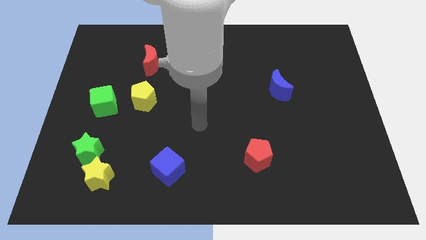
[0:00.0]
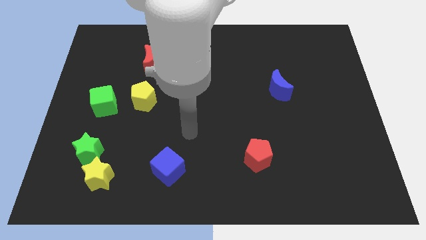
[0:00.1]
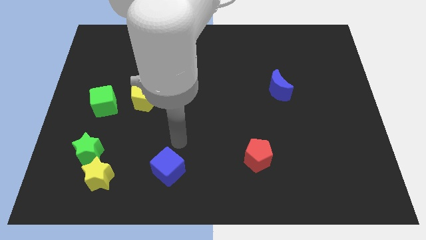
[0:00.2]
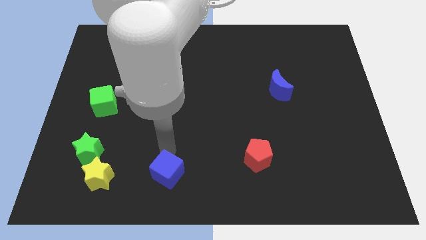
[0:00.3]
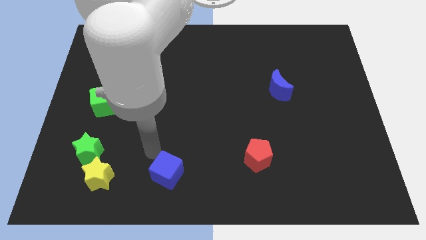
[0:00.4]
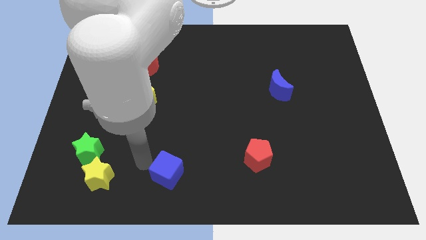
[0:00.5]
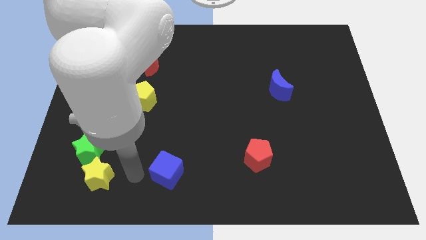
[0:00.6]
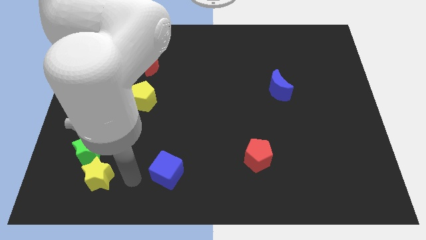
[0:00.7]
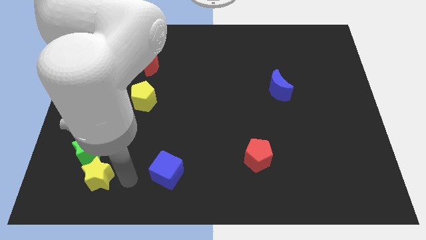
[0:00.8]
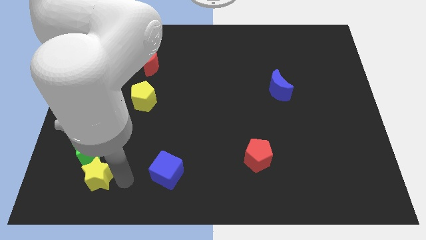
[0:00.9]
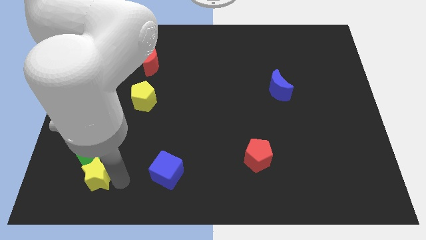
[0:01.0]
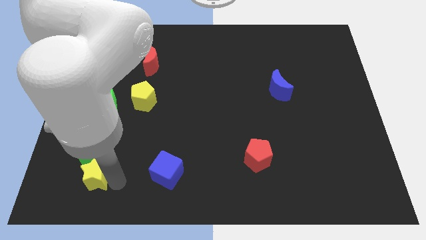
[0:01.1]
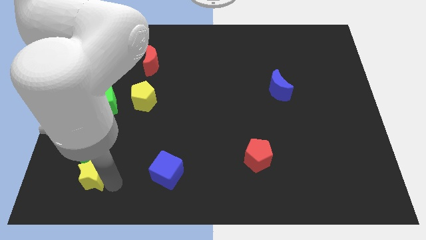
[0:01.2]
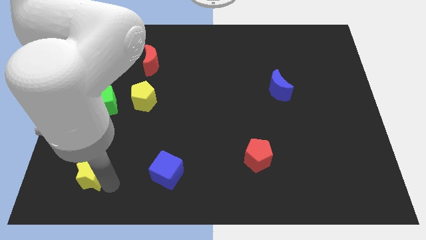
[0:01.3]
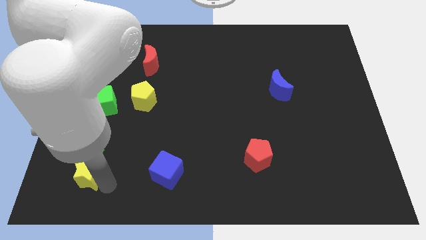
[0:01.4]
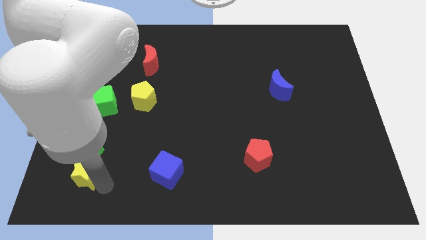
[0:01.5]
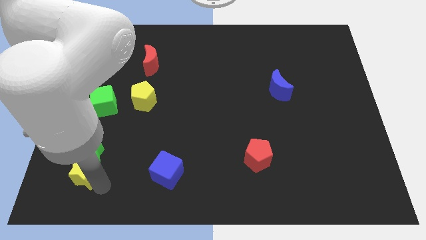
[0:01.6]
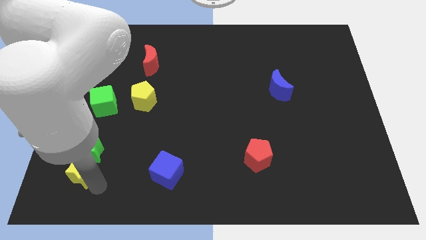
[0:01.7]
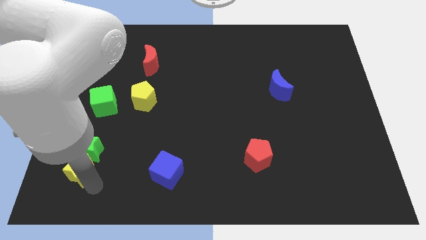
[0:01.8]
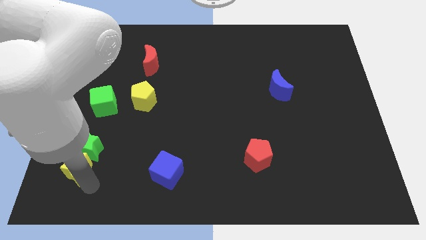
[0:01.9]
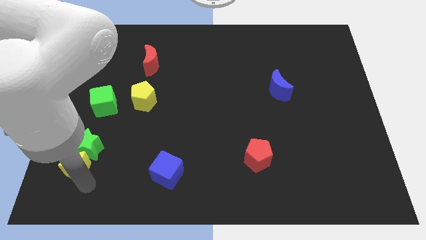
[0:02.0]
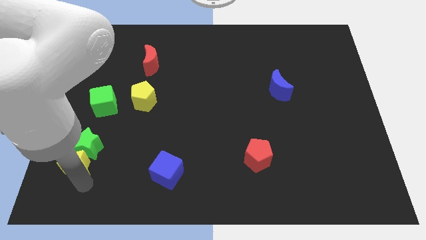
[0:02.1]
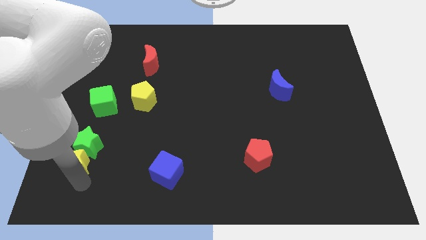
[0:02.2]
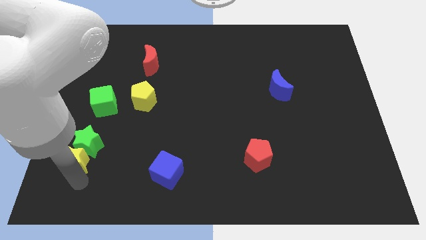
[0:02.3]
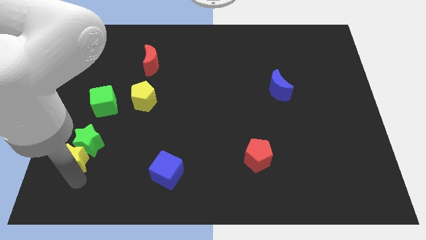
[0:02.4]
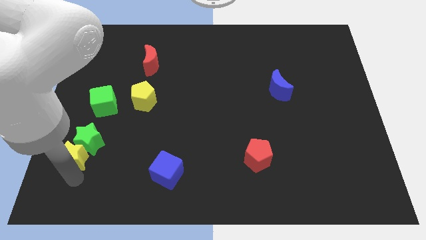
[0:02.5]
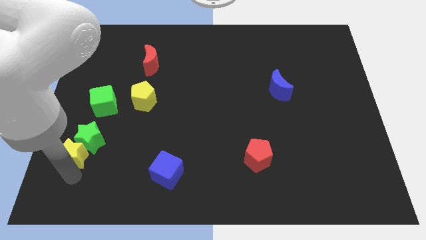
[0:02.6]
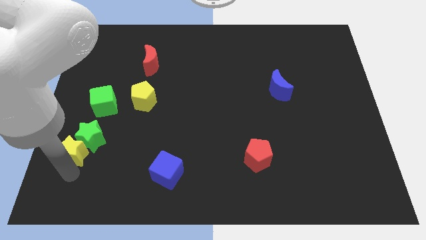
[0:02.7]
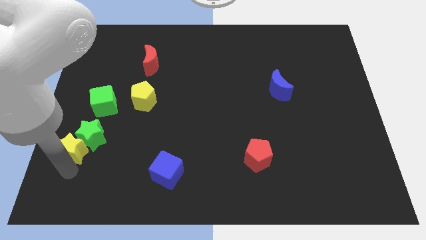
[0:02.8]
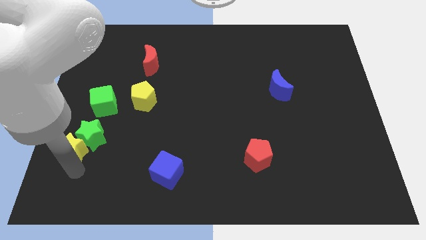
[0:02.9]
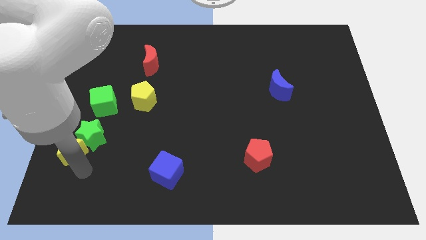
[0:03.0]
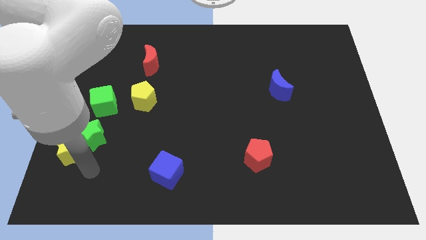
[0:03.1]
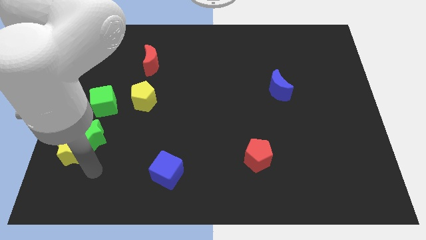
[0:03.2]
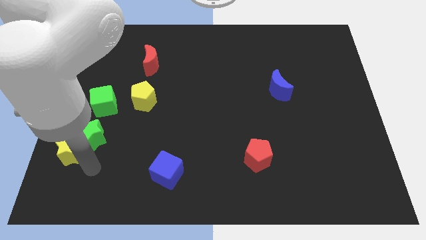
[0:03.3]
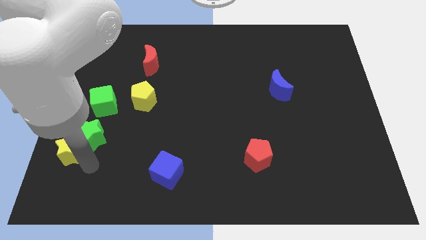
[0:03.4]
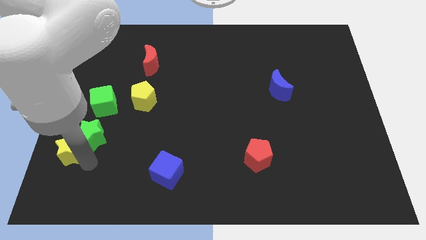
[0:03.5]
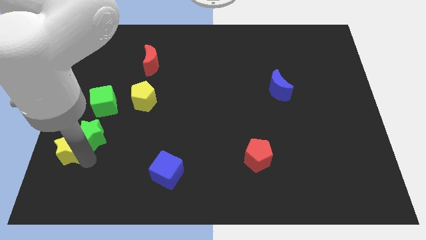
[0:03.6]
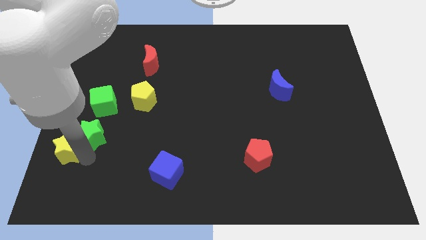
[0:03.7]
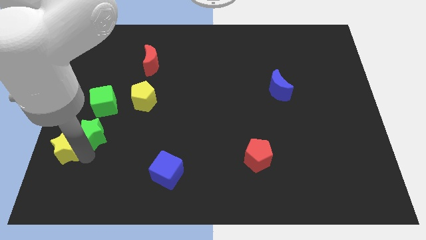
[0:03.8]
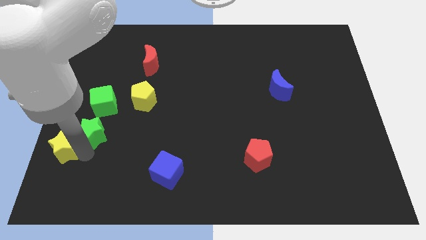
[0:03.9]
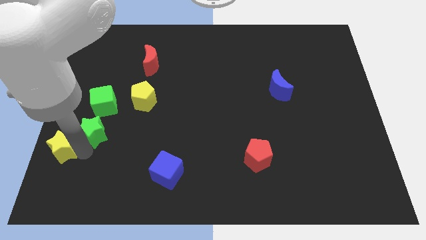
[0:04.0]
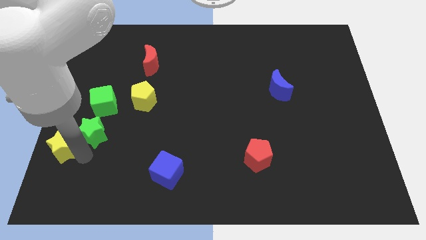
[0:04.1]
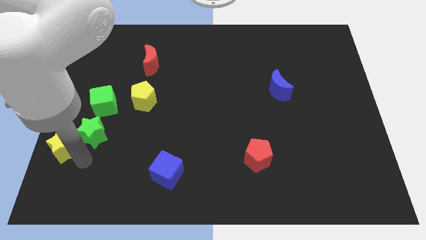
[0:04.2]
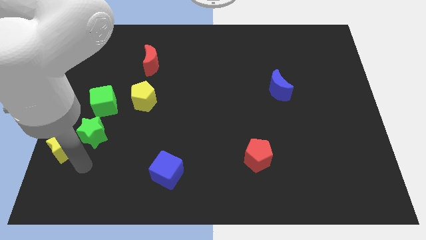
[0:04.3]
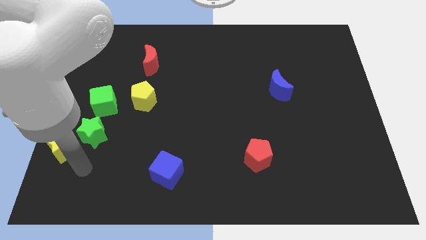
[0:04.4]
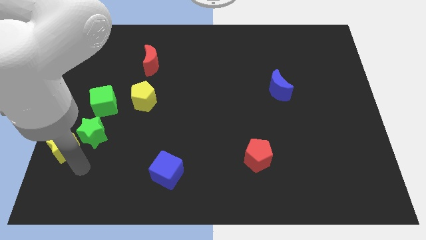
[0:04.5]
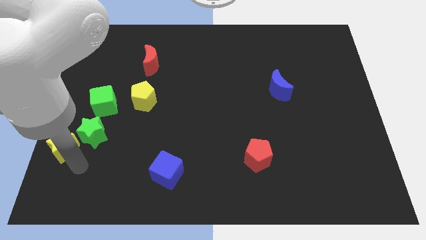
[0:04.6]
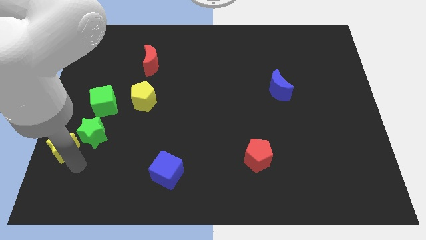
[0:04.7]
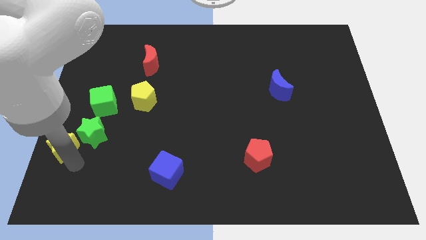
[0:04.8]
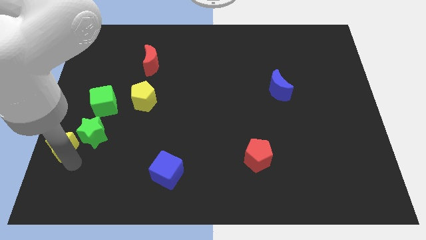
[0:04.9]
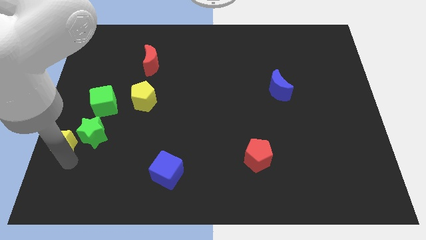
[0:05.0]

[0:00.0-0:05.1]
push the yellow star to the left side of the board

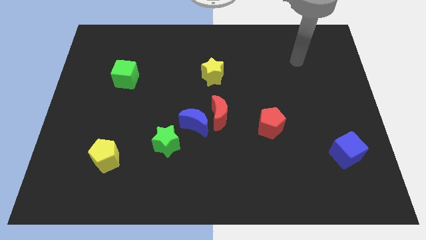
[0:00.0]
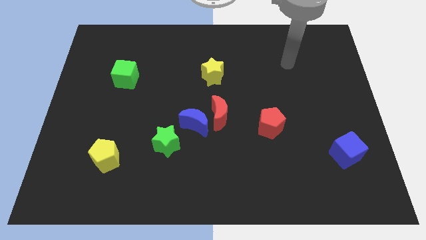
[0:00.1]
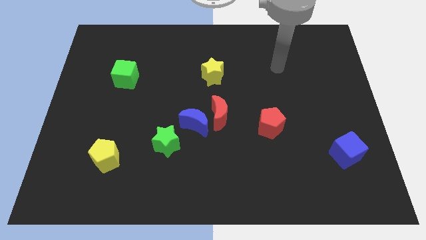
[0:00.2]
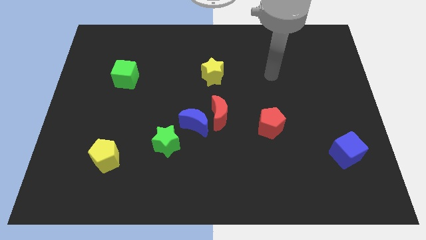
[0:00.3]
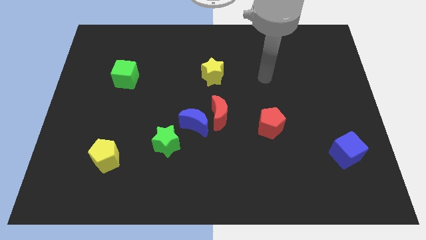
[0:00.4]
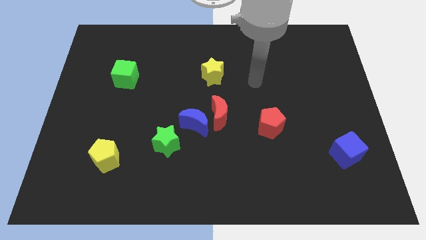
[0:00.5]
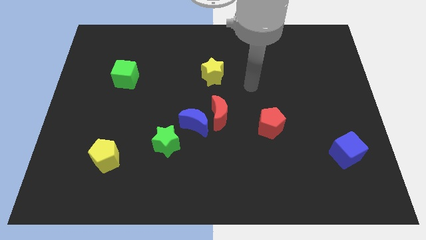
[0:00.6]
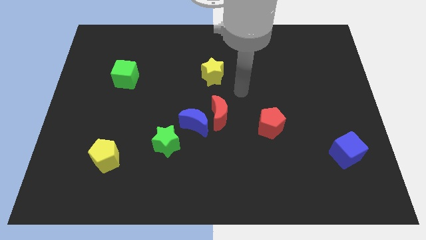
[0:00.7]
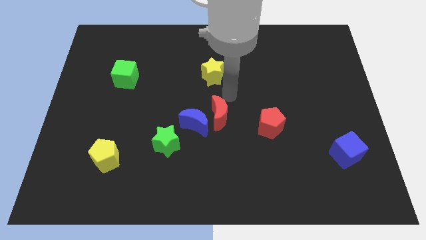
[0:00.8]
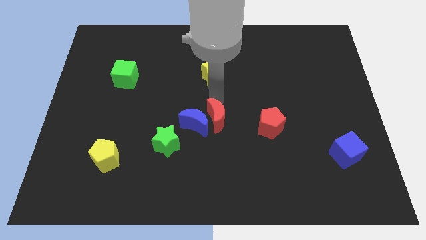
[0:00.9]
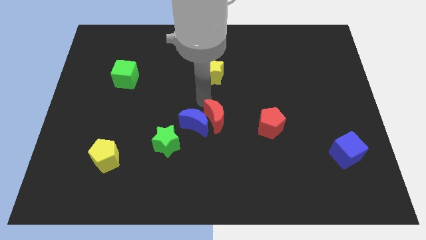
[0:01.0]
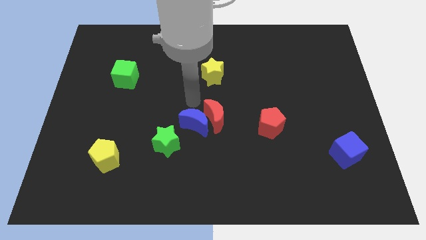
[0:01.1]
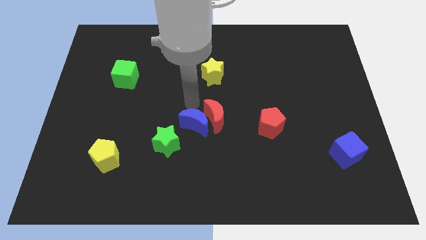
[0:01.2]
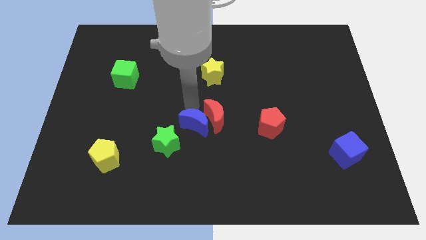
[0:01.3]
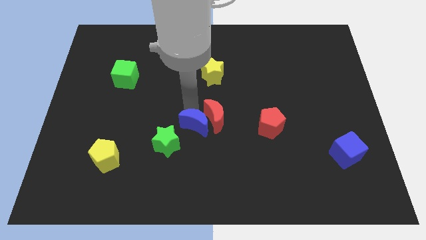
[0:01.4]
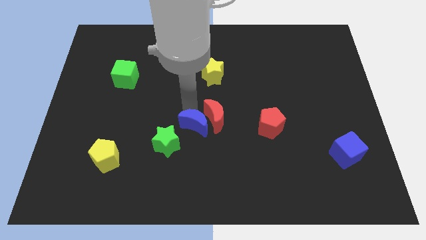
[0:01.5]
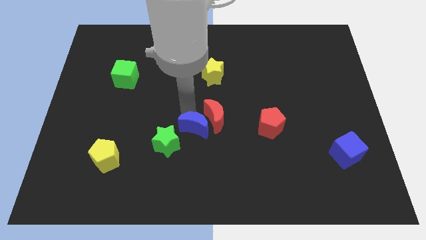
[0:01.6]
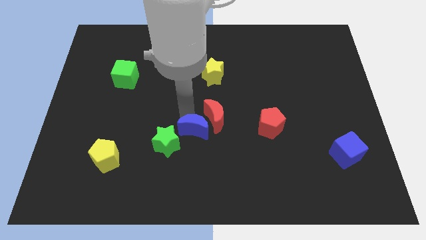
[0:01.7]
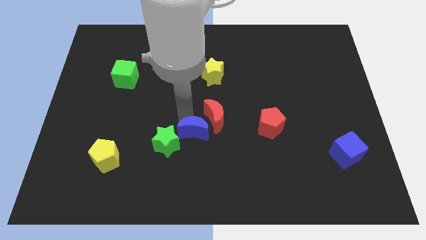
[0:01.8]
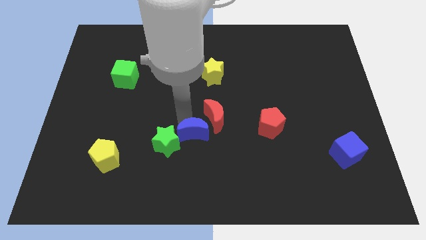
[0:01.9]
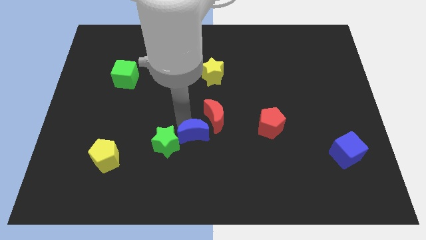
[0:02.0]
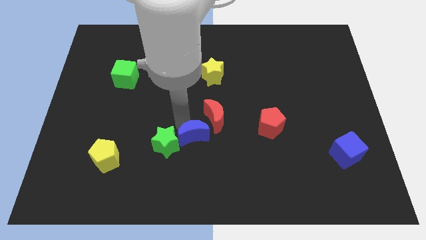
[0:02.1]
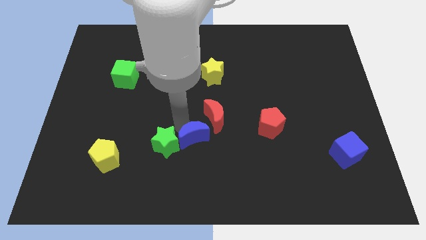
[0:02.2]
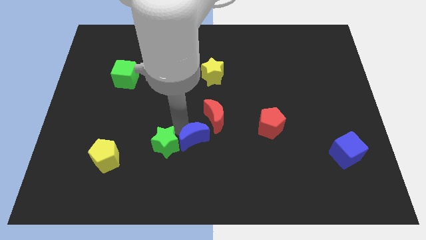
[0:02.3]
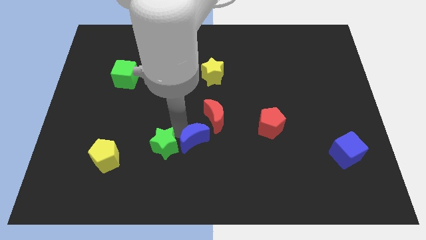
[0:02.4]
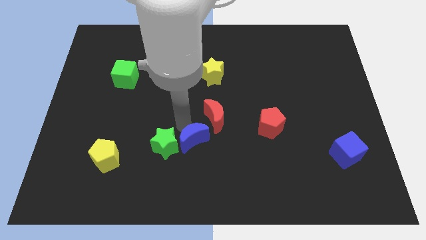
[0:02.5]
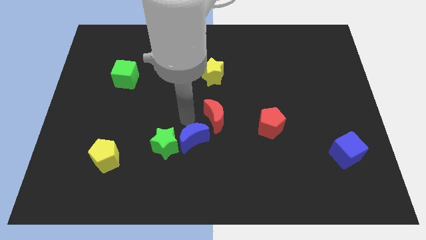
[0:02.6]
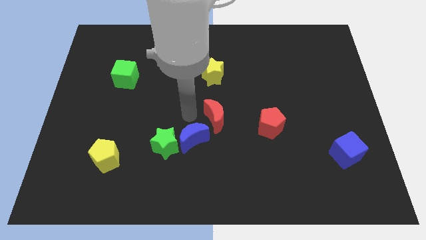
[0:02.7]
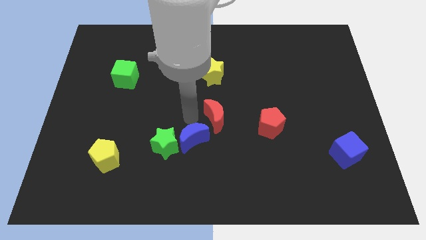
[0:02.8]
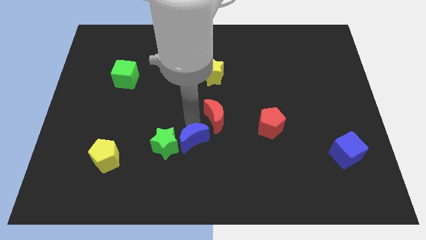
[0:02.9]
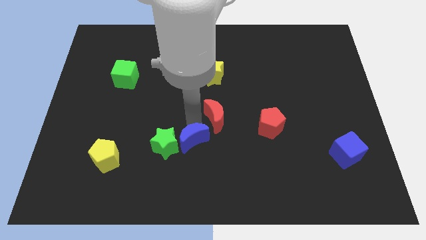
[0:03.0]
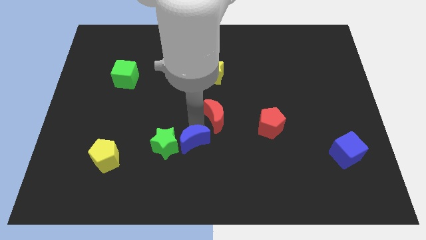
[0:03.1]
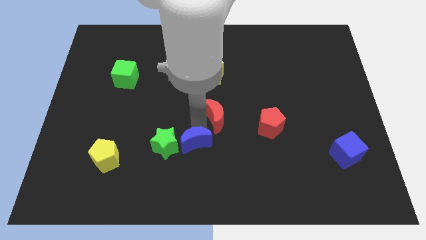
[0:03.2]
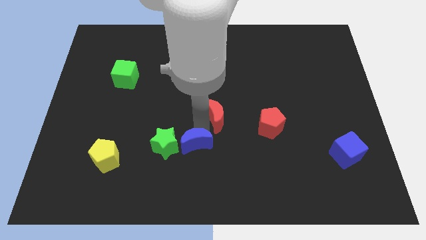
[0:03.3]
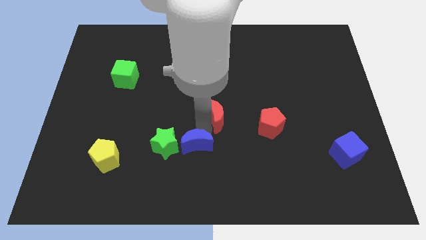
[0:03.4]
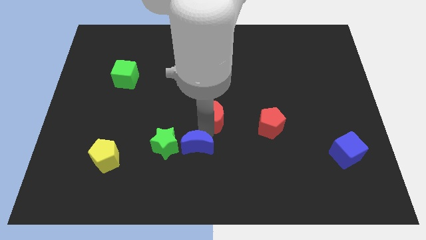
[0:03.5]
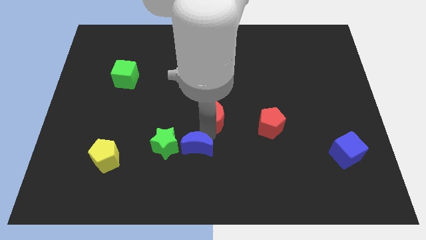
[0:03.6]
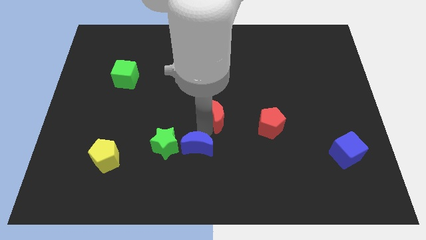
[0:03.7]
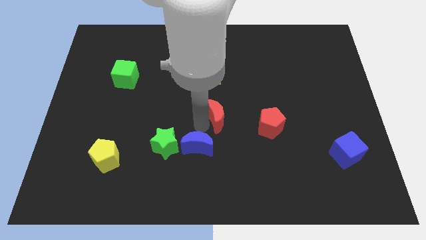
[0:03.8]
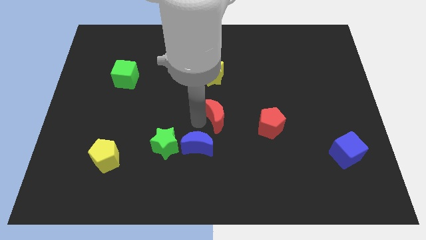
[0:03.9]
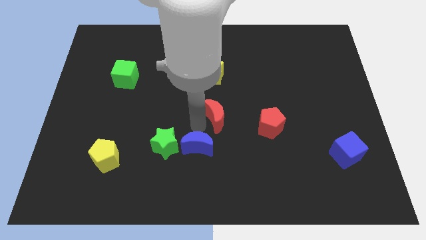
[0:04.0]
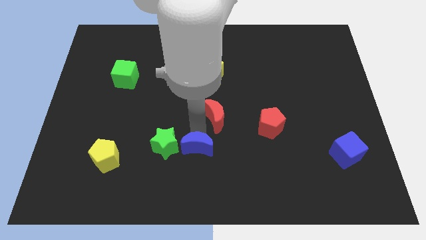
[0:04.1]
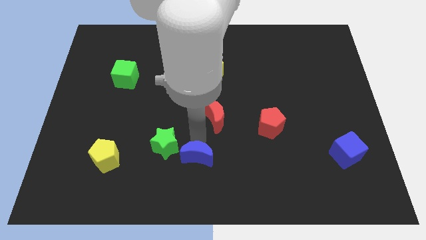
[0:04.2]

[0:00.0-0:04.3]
put the blue moon to the bottom side
